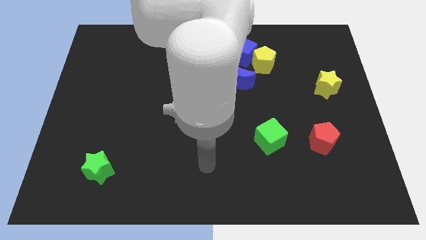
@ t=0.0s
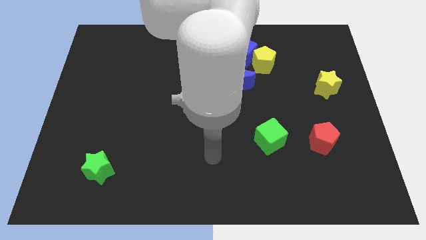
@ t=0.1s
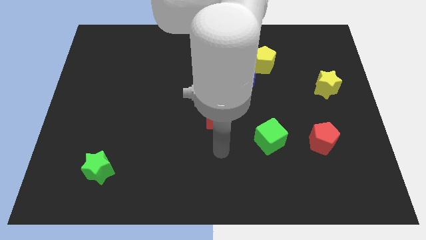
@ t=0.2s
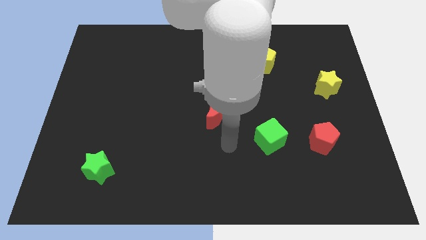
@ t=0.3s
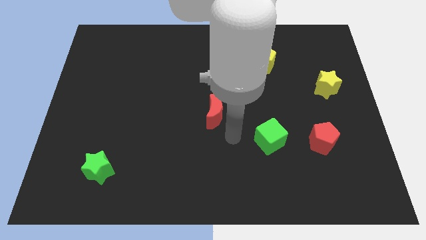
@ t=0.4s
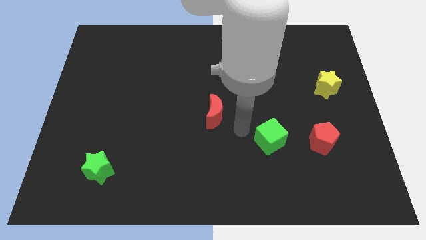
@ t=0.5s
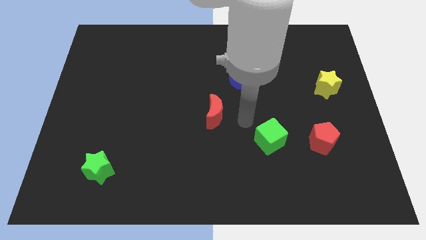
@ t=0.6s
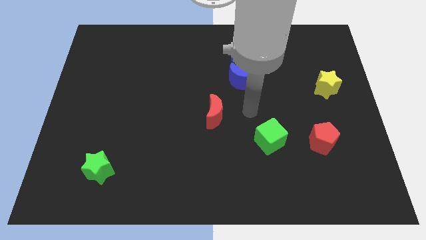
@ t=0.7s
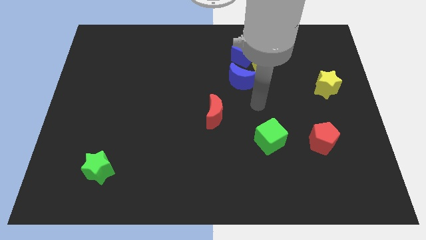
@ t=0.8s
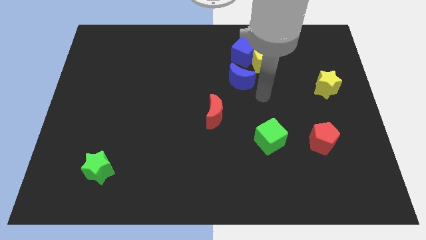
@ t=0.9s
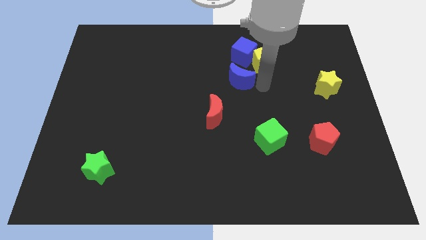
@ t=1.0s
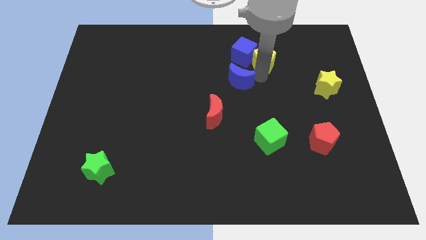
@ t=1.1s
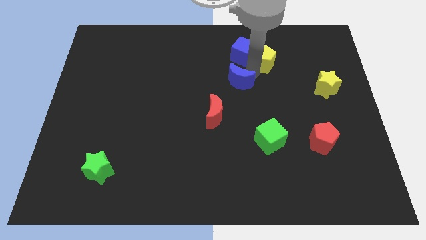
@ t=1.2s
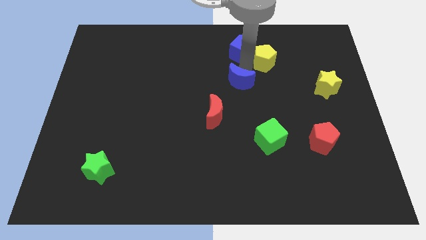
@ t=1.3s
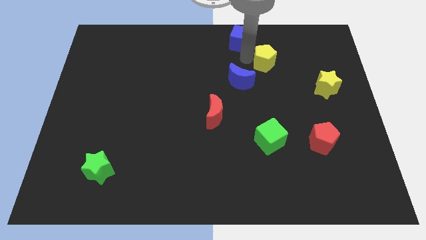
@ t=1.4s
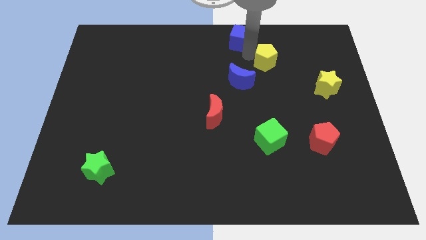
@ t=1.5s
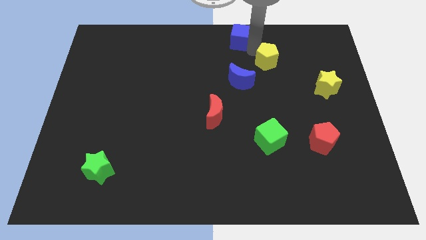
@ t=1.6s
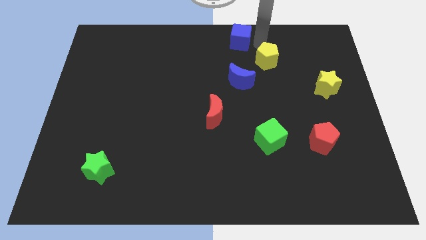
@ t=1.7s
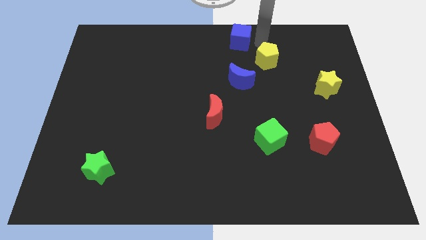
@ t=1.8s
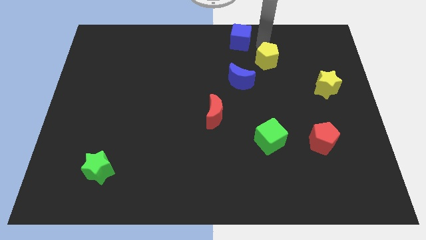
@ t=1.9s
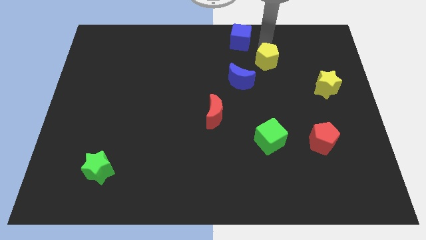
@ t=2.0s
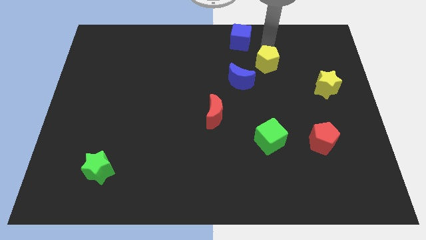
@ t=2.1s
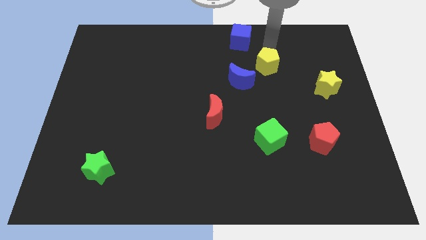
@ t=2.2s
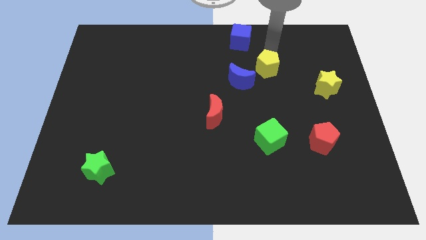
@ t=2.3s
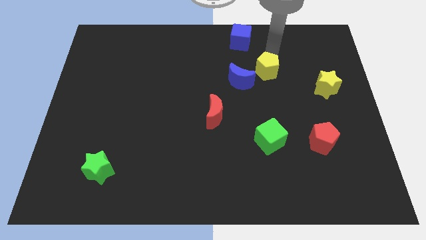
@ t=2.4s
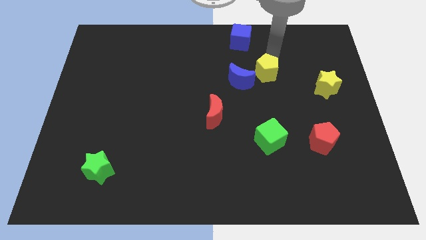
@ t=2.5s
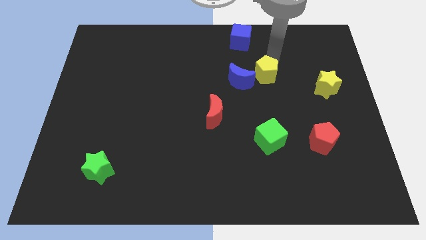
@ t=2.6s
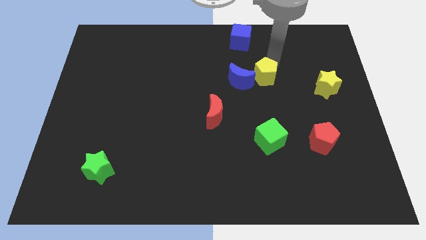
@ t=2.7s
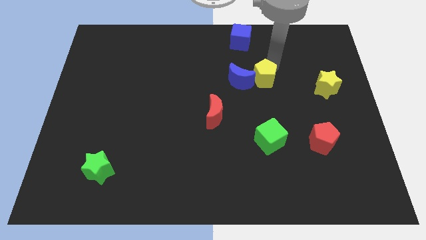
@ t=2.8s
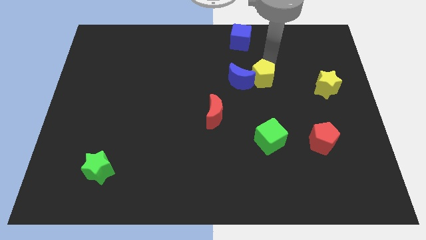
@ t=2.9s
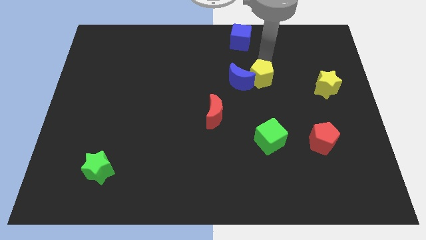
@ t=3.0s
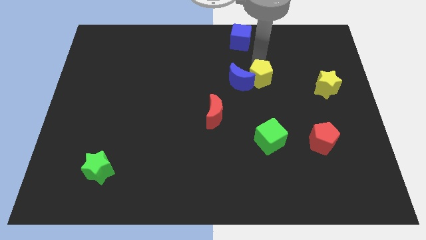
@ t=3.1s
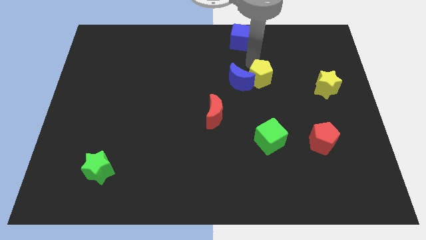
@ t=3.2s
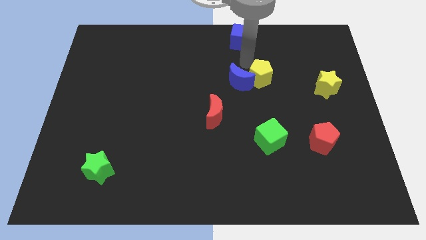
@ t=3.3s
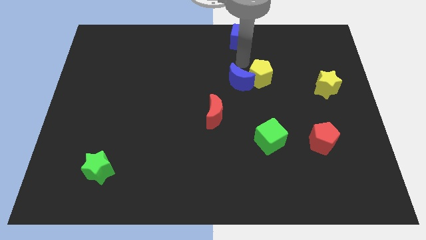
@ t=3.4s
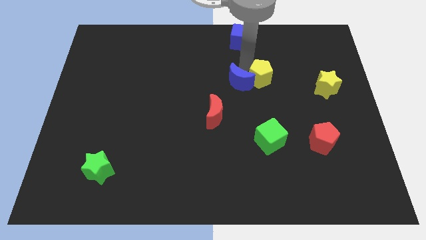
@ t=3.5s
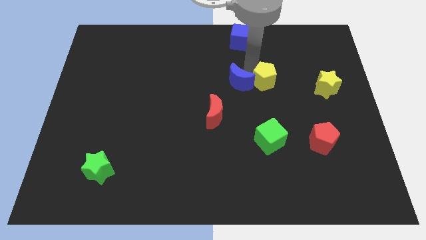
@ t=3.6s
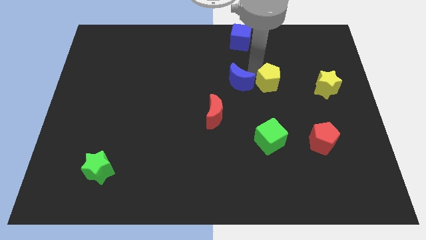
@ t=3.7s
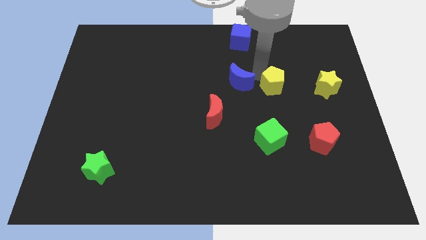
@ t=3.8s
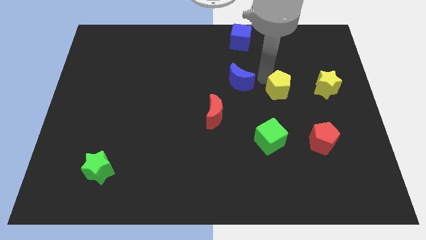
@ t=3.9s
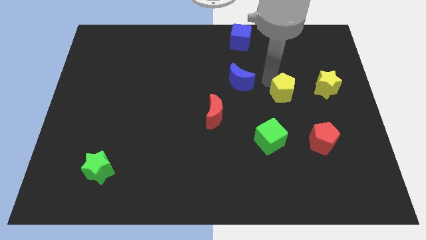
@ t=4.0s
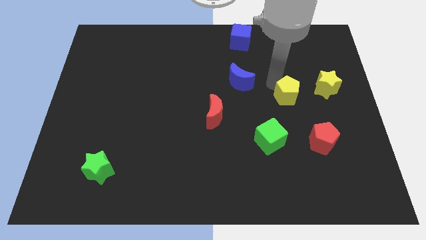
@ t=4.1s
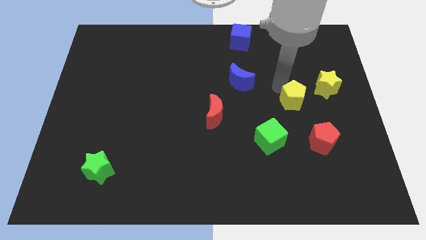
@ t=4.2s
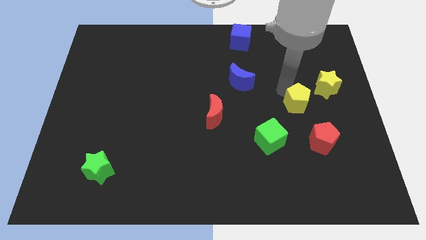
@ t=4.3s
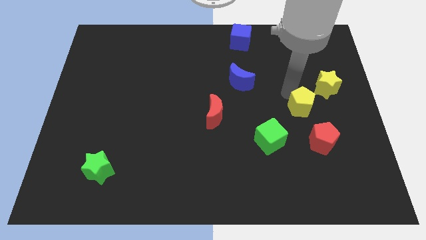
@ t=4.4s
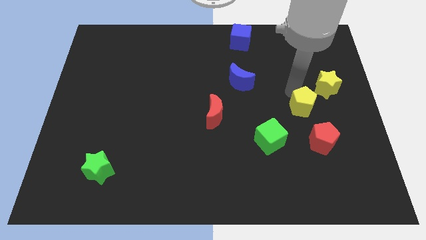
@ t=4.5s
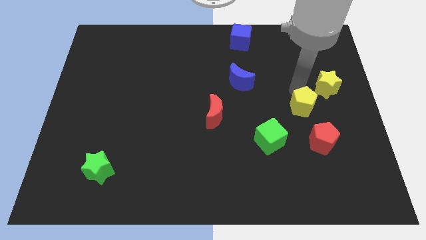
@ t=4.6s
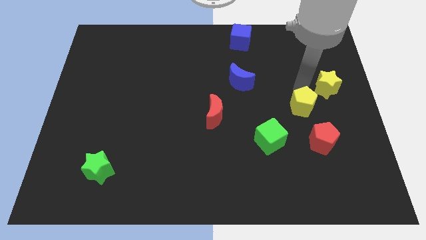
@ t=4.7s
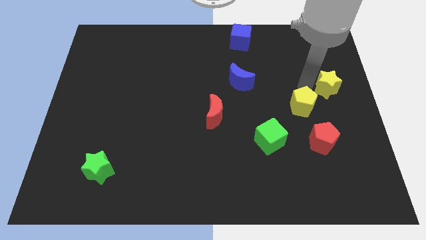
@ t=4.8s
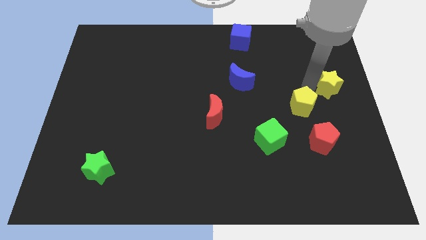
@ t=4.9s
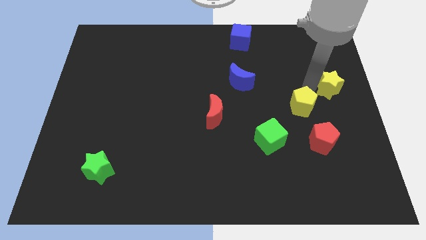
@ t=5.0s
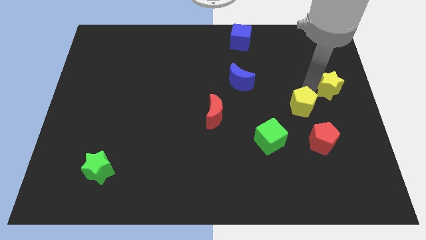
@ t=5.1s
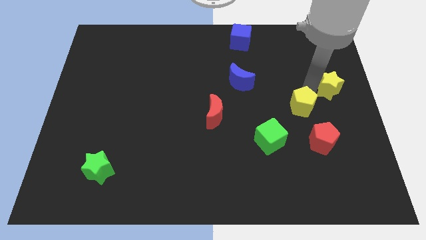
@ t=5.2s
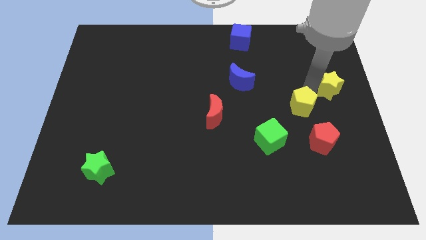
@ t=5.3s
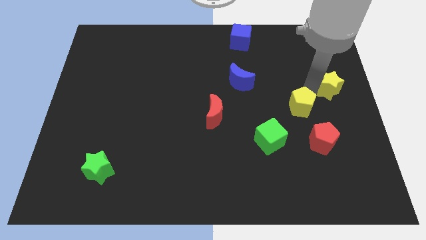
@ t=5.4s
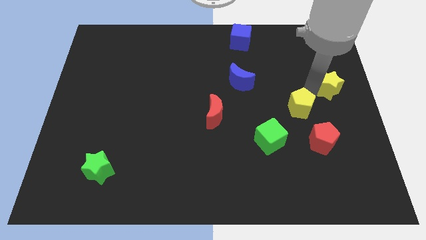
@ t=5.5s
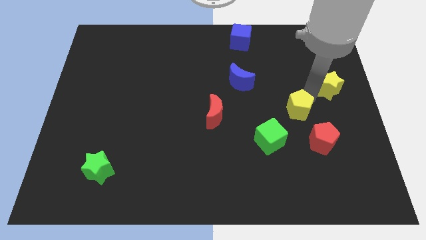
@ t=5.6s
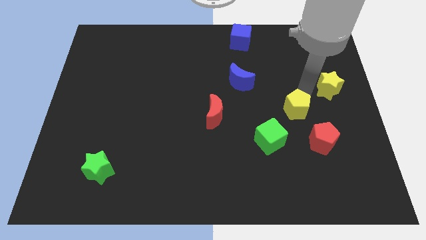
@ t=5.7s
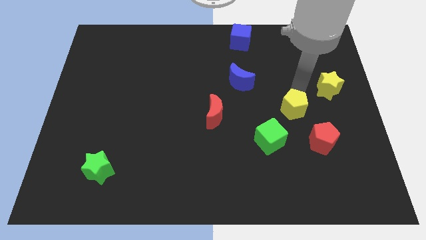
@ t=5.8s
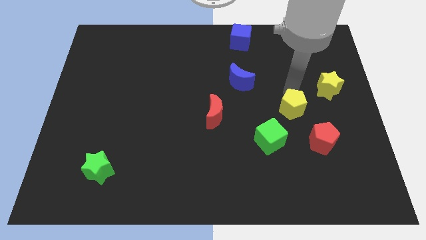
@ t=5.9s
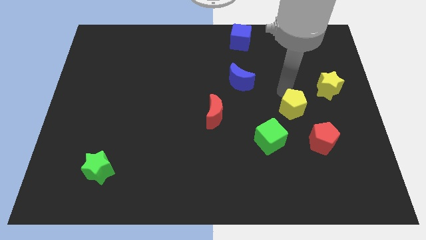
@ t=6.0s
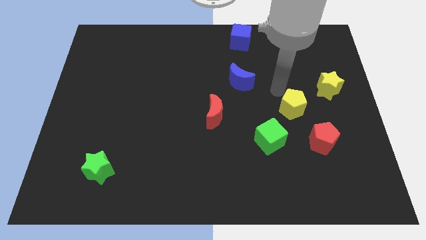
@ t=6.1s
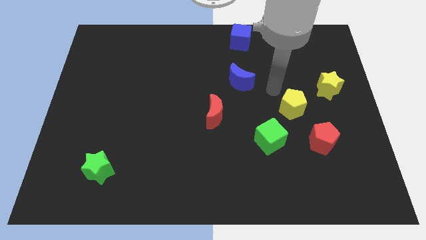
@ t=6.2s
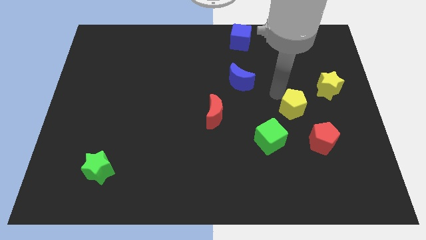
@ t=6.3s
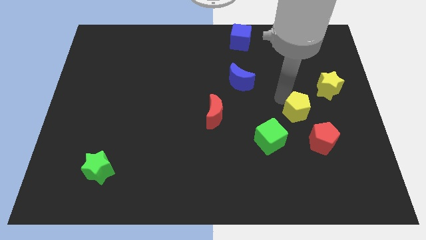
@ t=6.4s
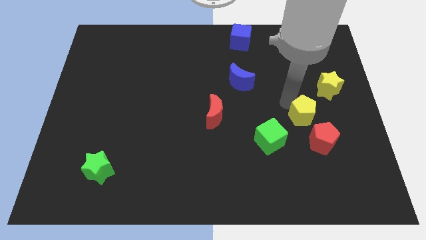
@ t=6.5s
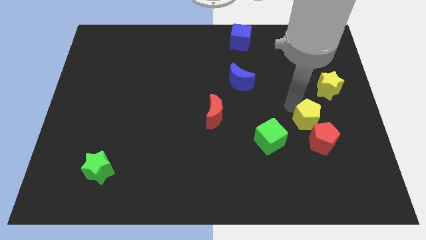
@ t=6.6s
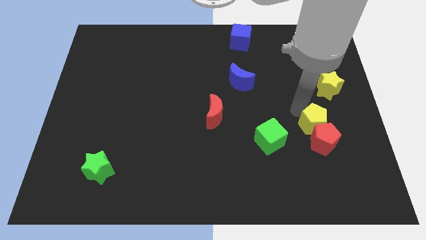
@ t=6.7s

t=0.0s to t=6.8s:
slide the yellow pentagon close to the red pentagon

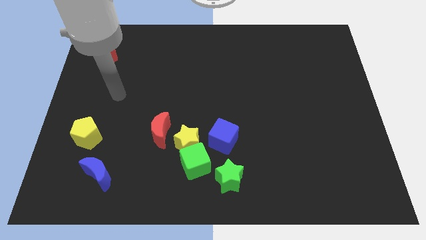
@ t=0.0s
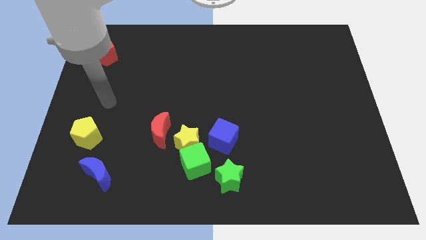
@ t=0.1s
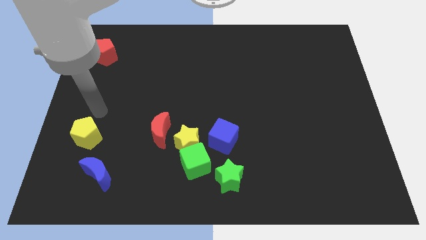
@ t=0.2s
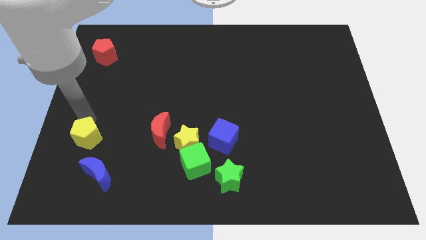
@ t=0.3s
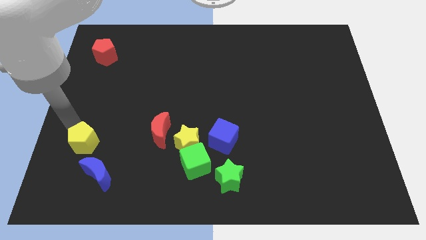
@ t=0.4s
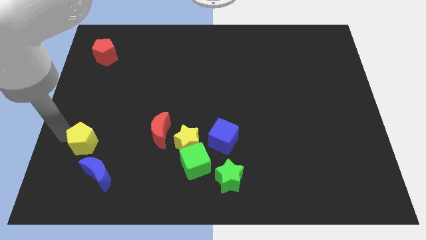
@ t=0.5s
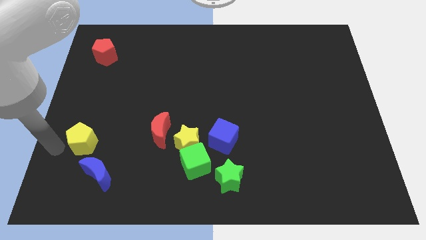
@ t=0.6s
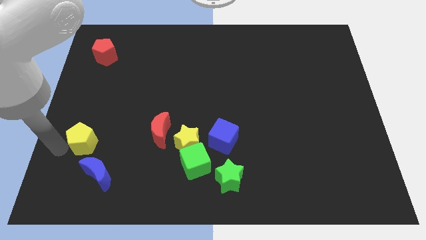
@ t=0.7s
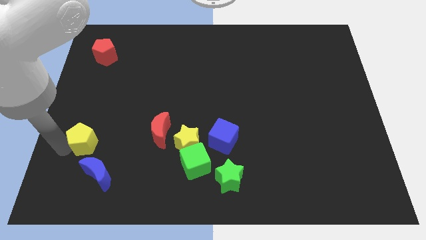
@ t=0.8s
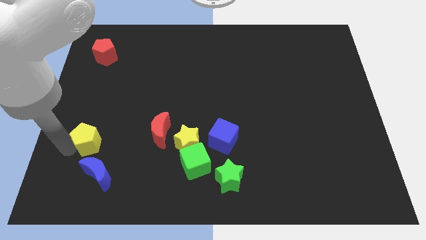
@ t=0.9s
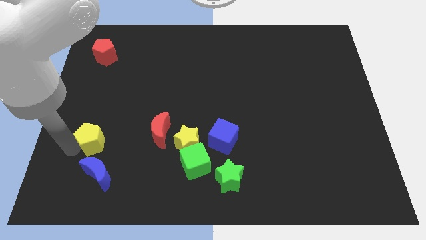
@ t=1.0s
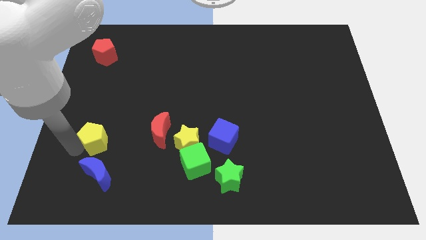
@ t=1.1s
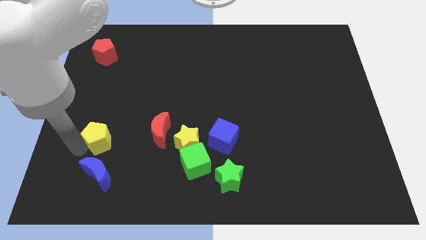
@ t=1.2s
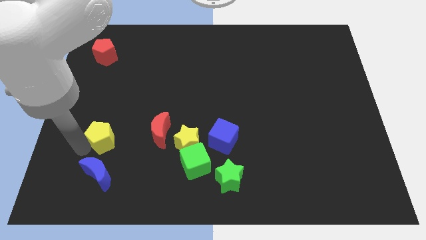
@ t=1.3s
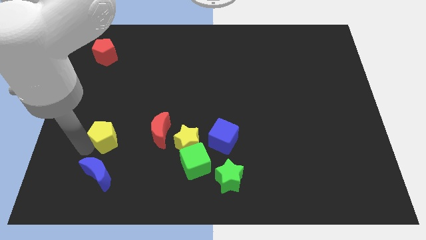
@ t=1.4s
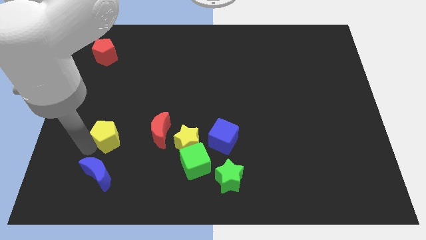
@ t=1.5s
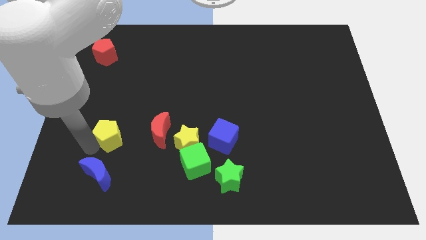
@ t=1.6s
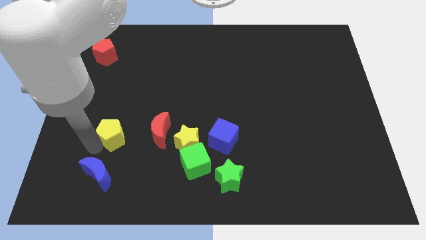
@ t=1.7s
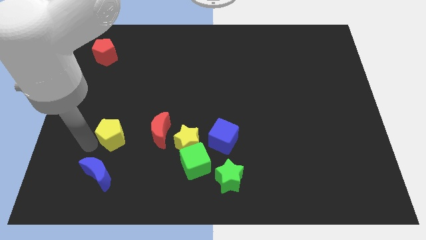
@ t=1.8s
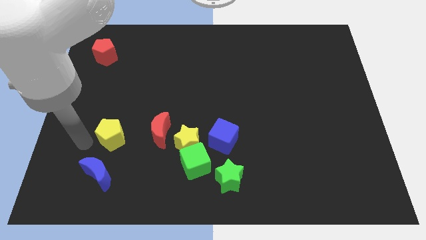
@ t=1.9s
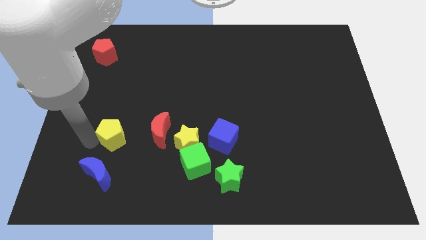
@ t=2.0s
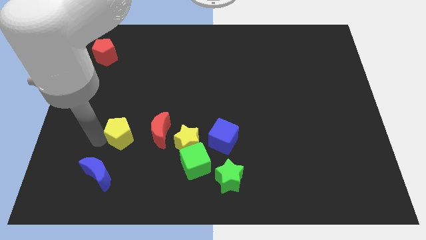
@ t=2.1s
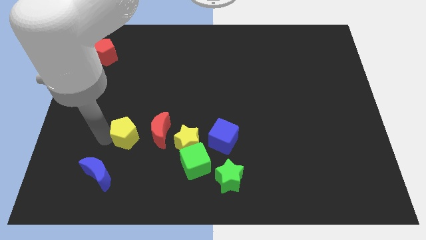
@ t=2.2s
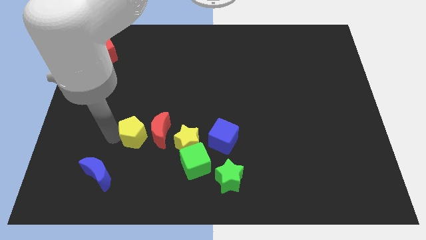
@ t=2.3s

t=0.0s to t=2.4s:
push the yellow pentagon close to the red moon
